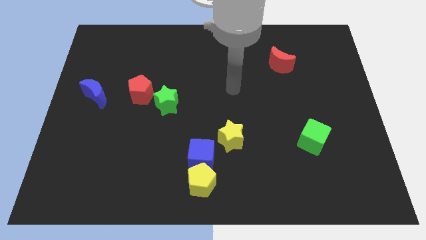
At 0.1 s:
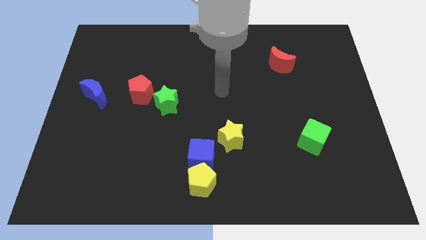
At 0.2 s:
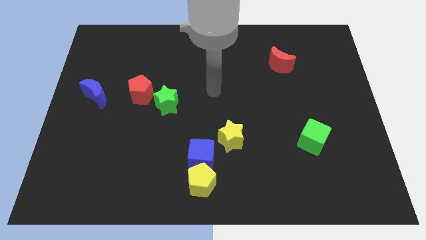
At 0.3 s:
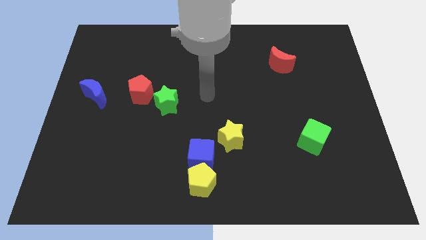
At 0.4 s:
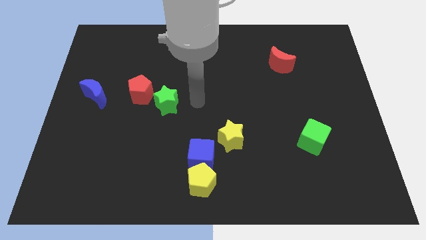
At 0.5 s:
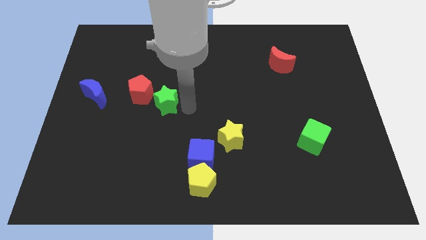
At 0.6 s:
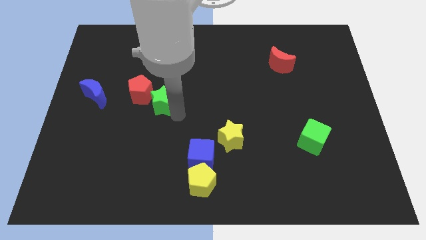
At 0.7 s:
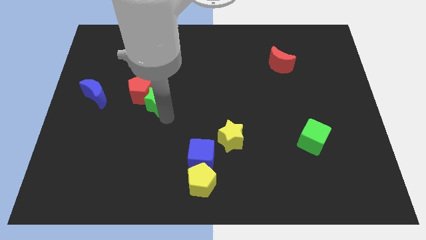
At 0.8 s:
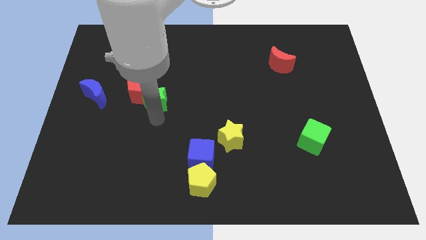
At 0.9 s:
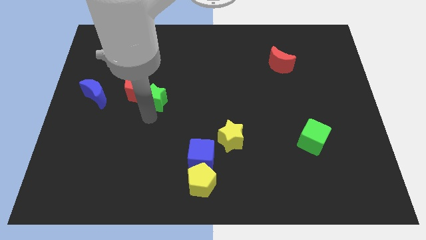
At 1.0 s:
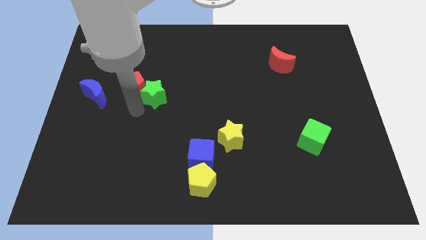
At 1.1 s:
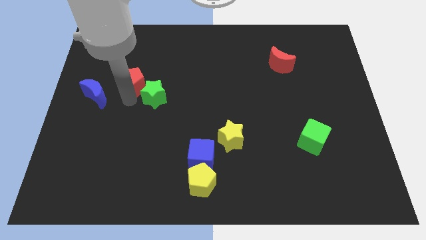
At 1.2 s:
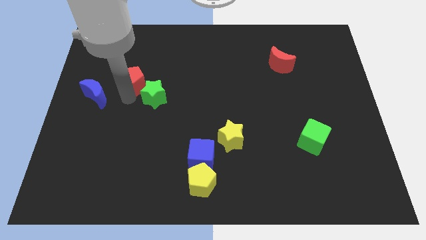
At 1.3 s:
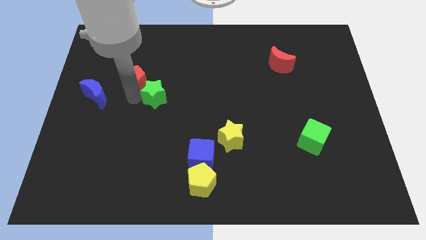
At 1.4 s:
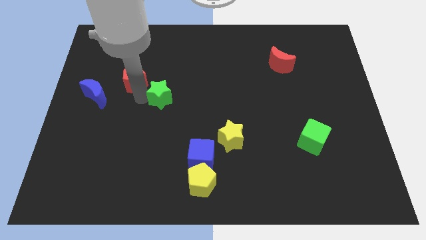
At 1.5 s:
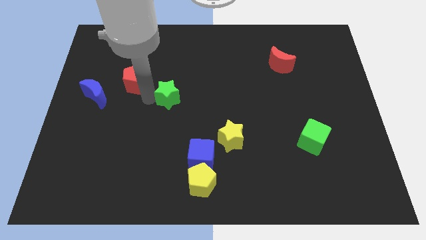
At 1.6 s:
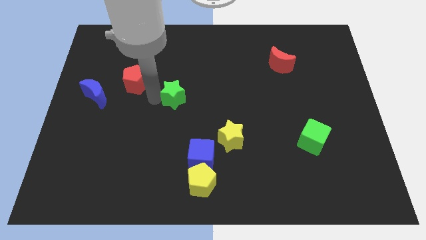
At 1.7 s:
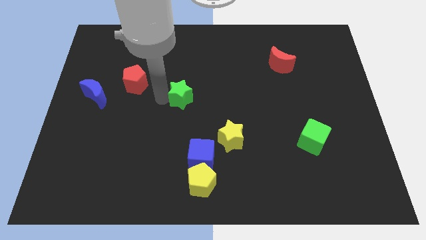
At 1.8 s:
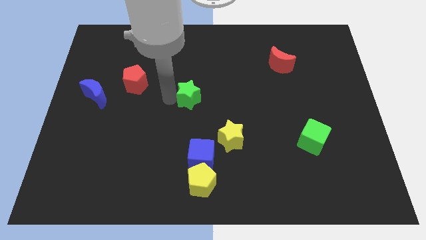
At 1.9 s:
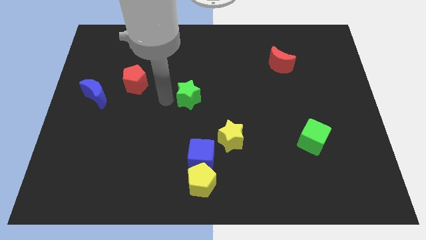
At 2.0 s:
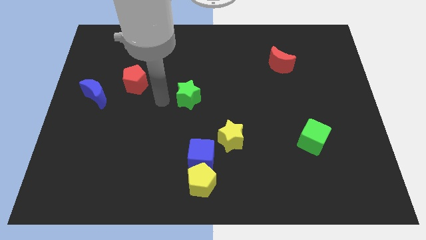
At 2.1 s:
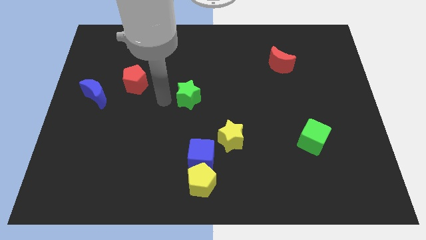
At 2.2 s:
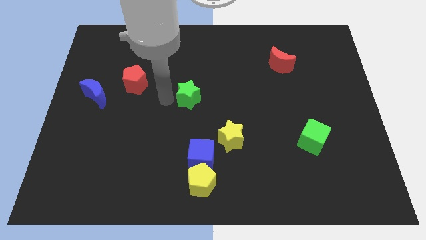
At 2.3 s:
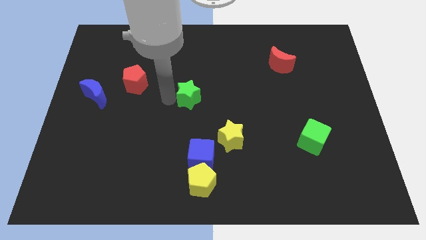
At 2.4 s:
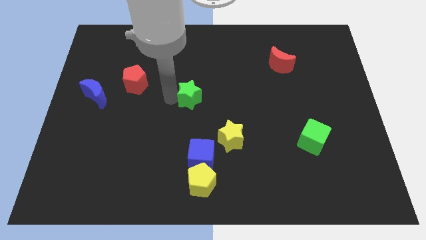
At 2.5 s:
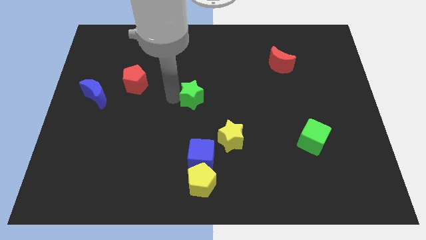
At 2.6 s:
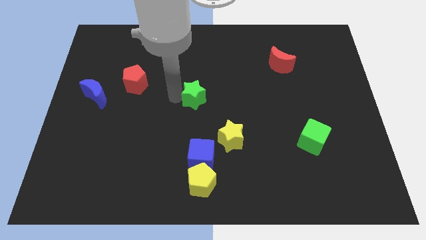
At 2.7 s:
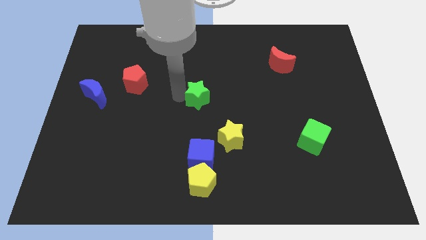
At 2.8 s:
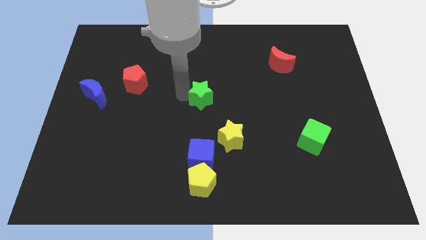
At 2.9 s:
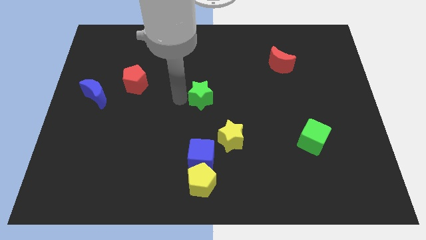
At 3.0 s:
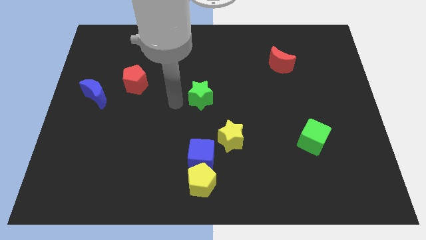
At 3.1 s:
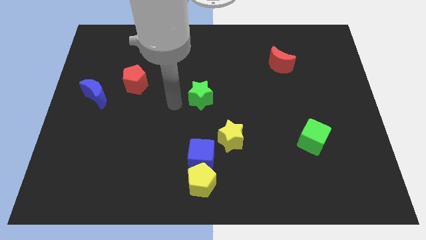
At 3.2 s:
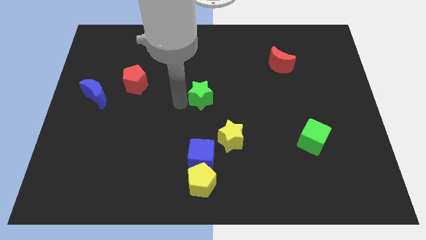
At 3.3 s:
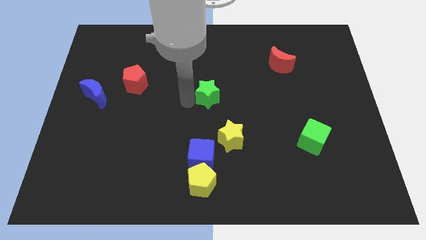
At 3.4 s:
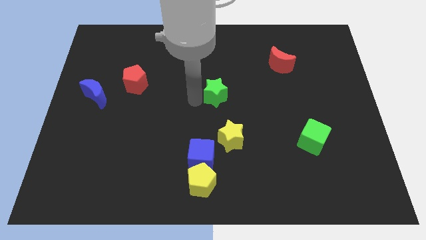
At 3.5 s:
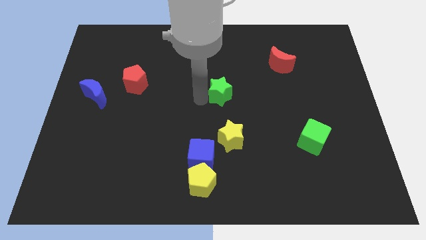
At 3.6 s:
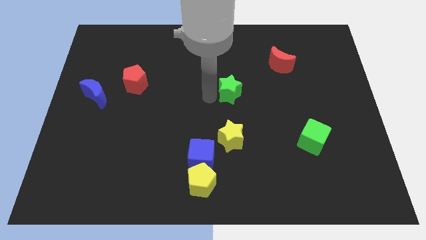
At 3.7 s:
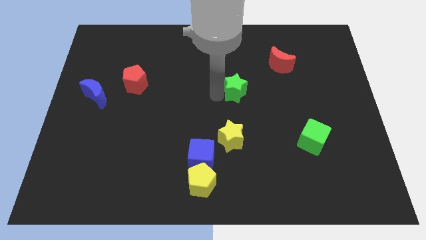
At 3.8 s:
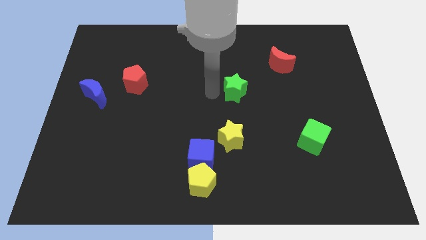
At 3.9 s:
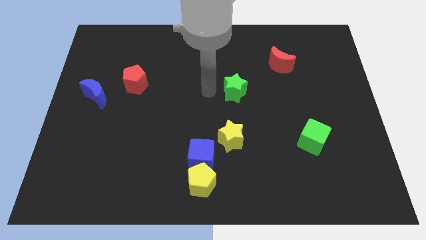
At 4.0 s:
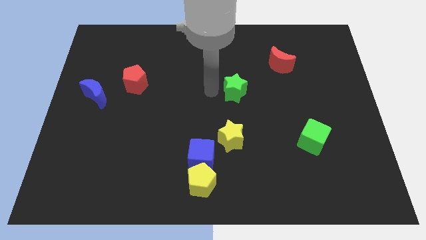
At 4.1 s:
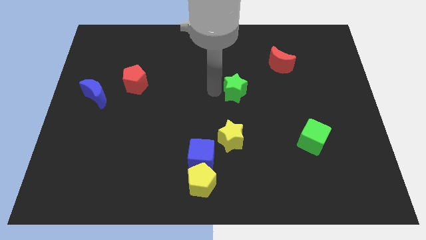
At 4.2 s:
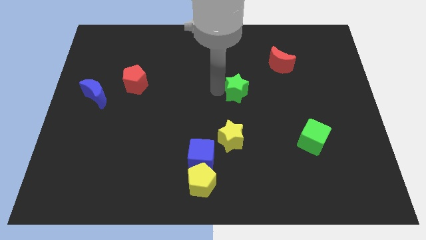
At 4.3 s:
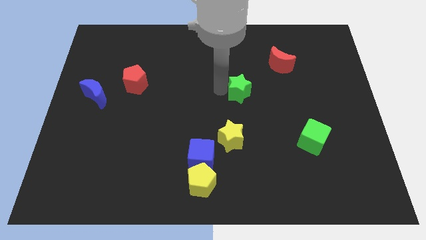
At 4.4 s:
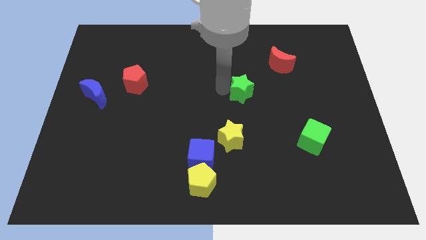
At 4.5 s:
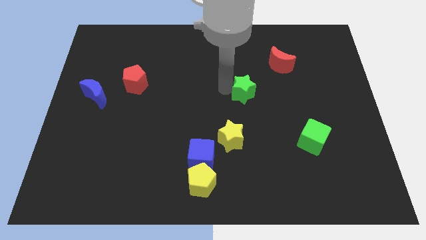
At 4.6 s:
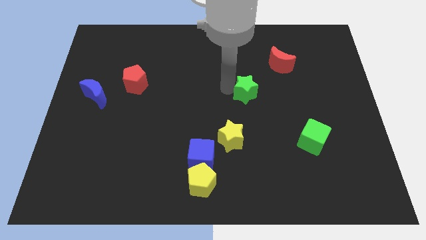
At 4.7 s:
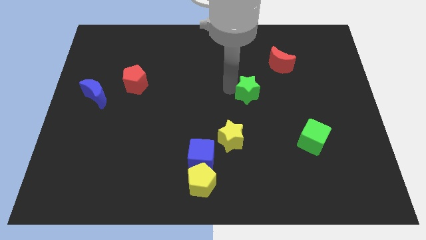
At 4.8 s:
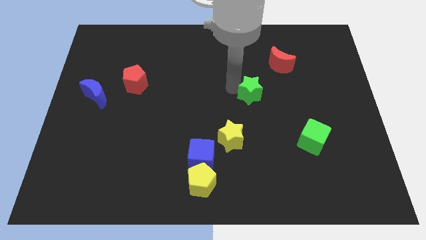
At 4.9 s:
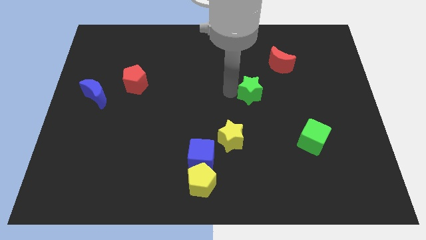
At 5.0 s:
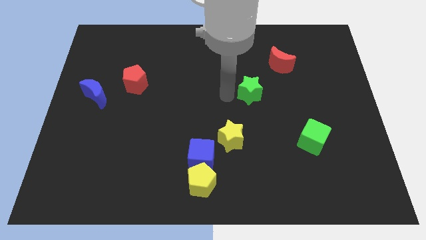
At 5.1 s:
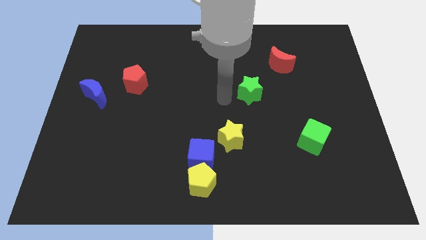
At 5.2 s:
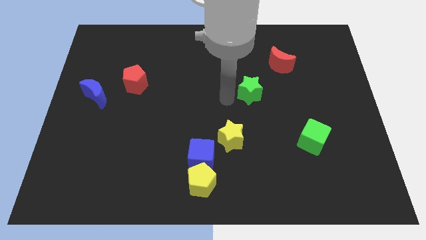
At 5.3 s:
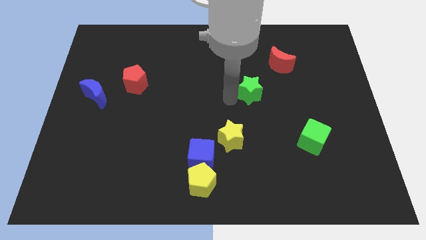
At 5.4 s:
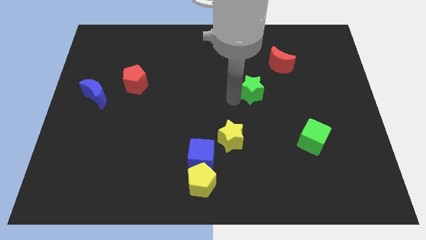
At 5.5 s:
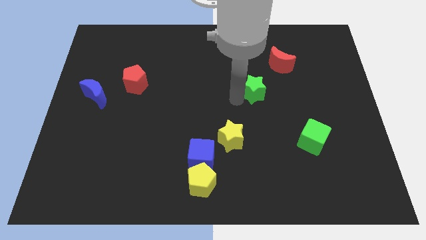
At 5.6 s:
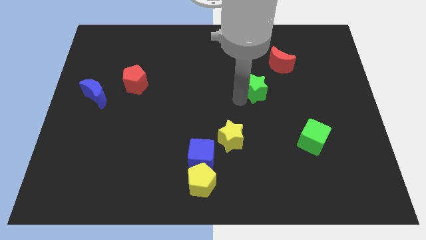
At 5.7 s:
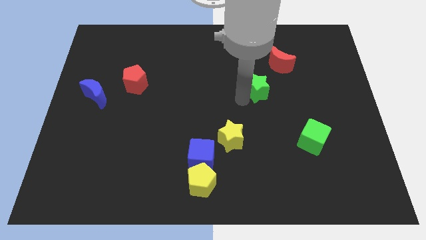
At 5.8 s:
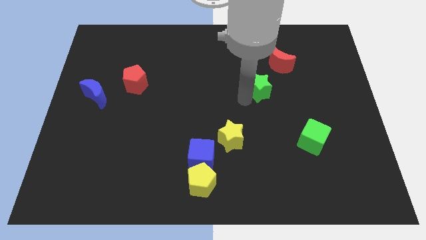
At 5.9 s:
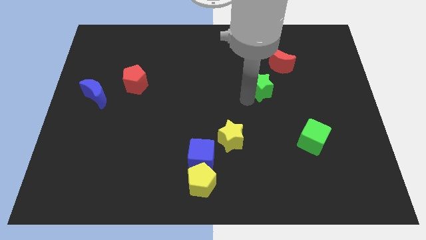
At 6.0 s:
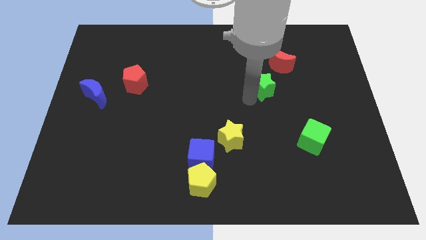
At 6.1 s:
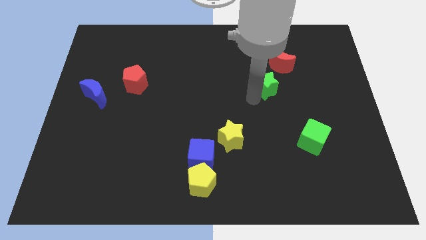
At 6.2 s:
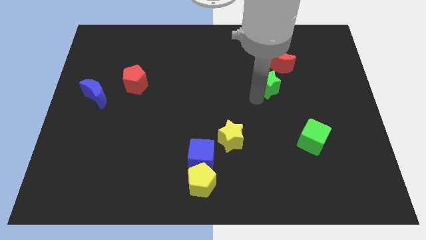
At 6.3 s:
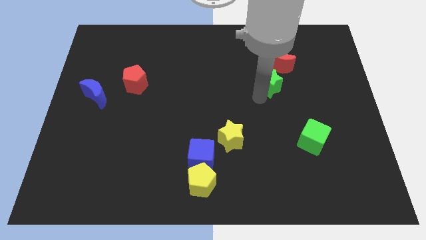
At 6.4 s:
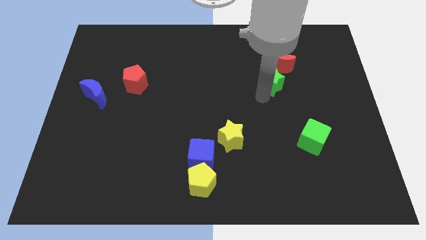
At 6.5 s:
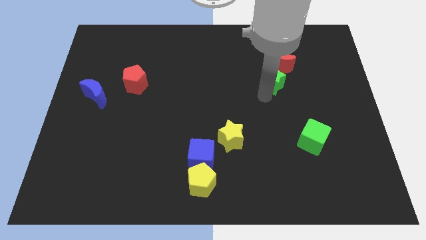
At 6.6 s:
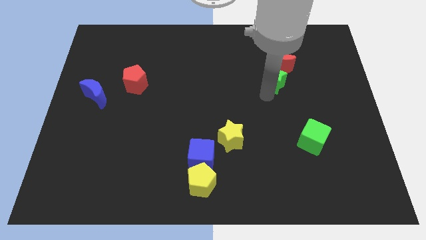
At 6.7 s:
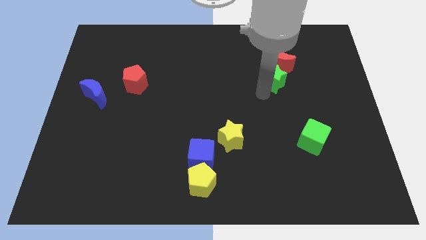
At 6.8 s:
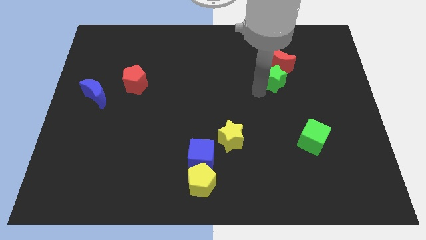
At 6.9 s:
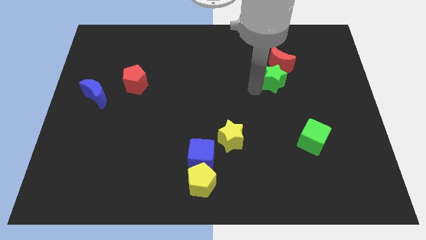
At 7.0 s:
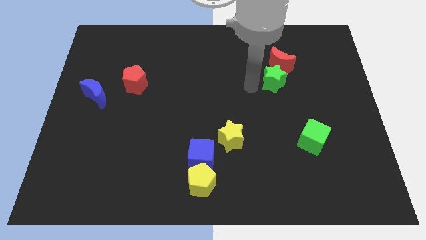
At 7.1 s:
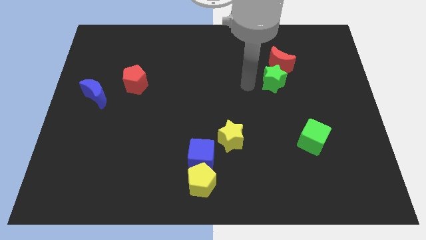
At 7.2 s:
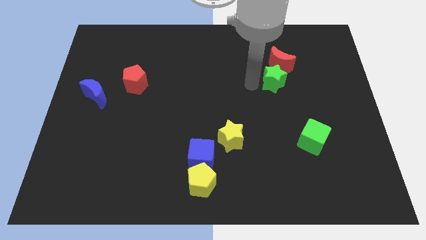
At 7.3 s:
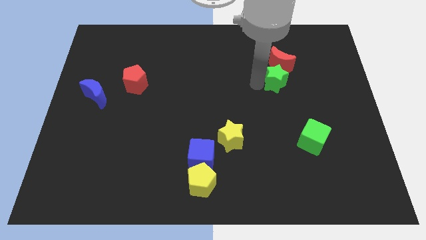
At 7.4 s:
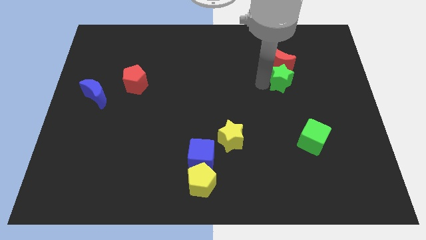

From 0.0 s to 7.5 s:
slide the green star diagonally down and to the right of the red moon
